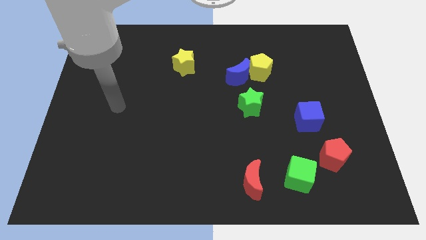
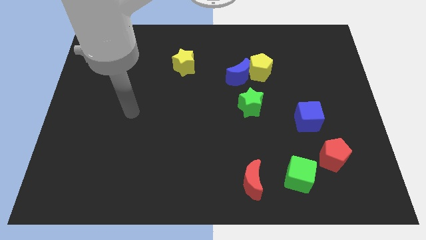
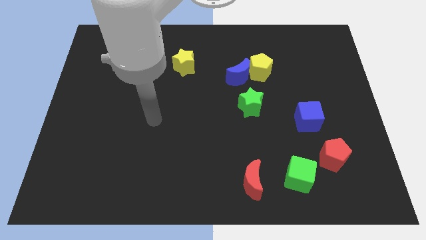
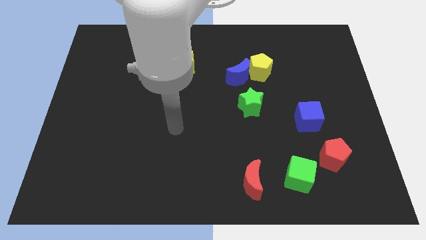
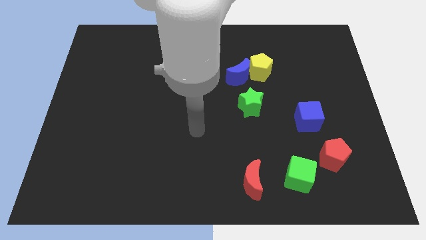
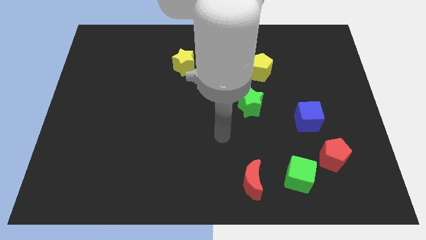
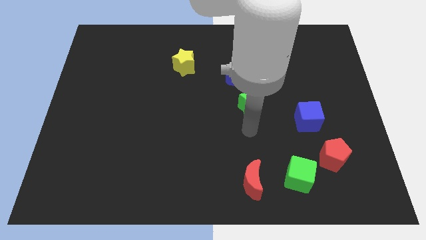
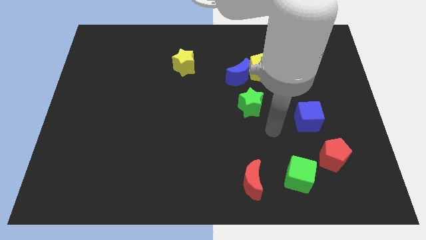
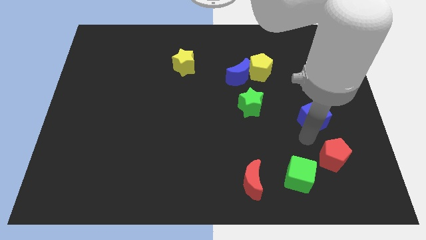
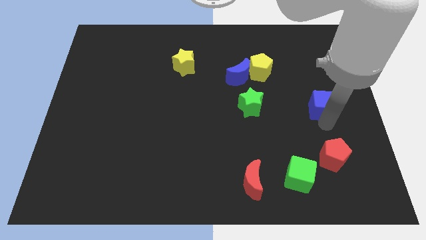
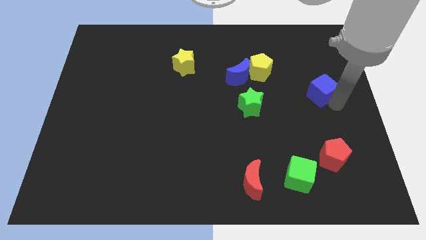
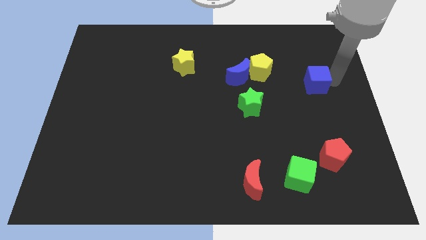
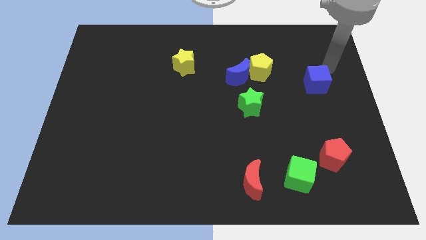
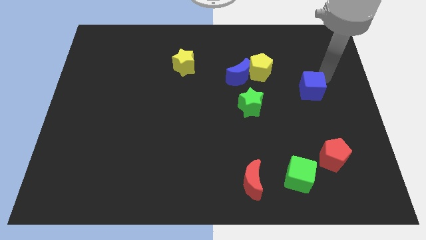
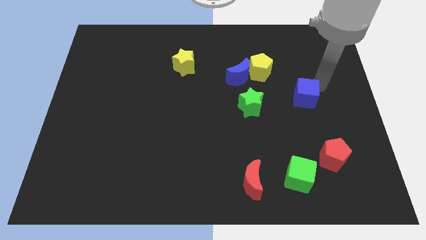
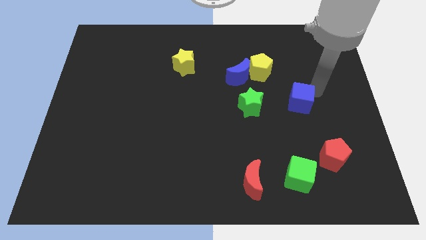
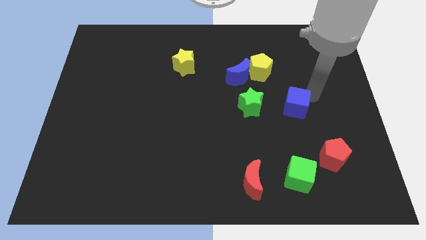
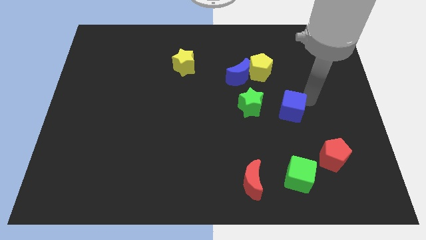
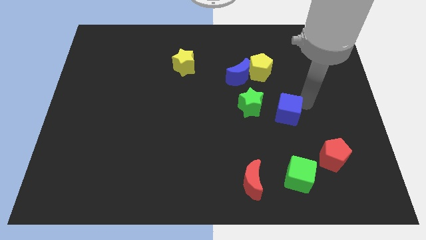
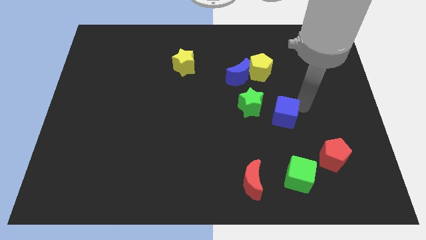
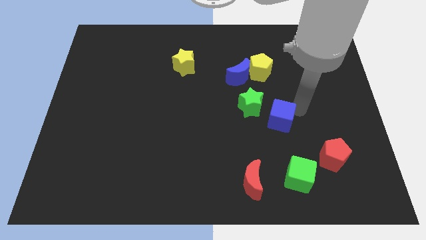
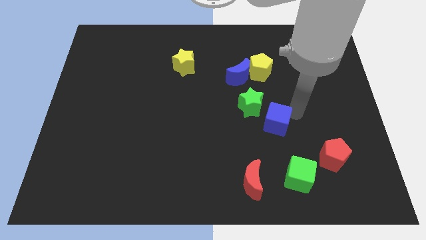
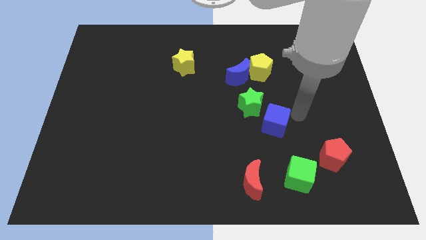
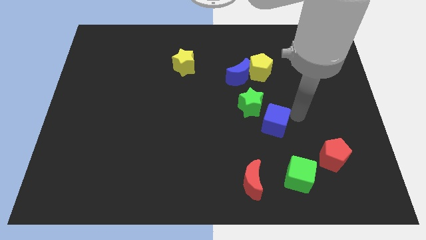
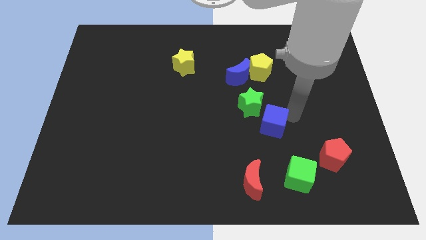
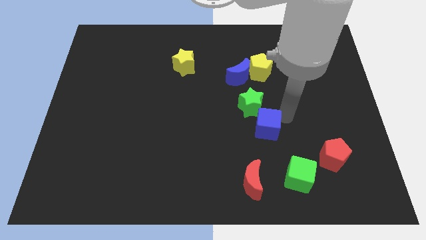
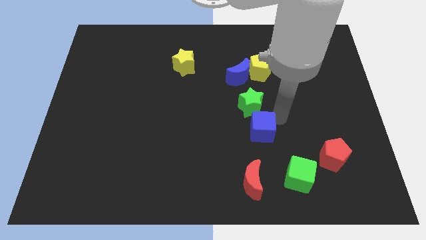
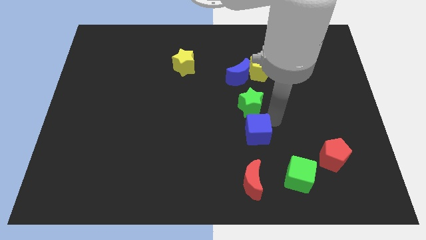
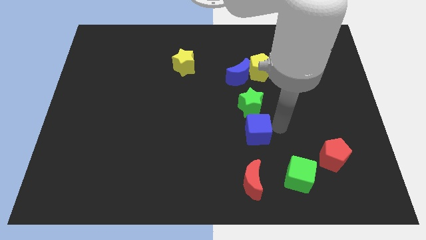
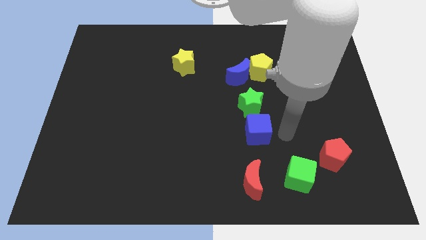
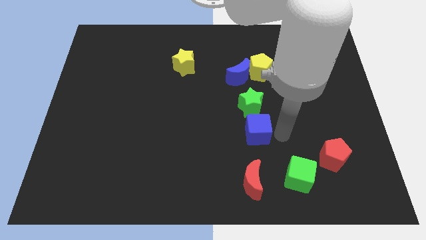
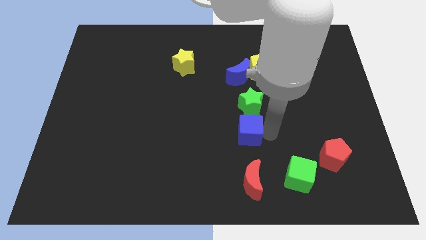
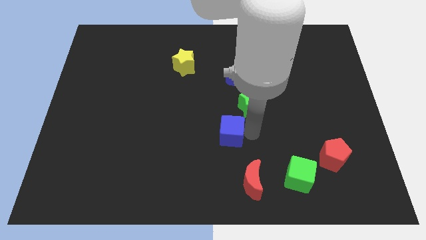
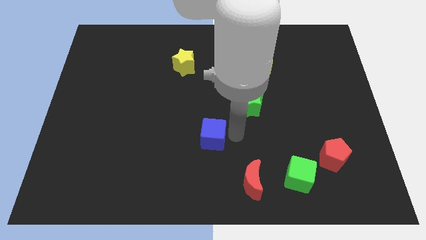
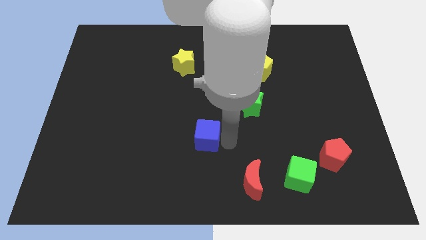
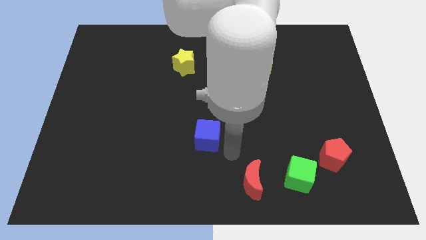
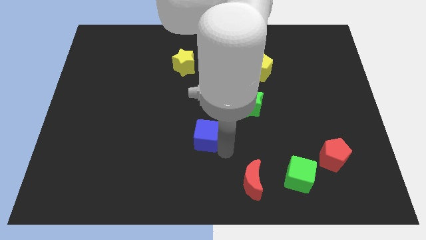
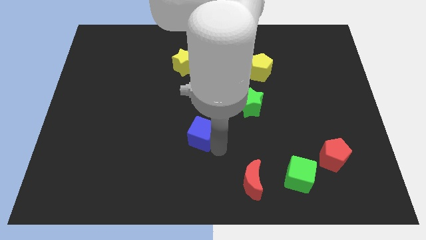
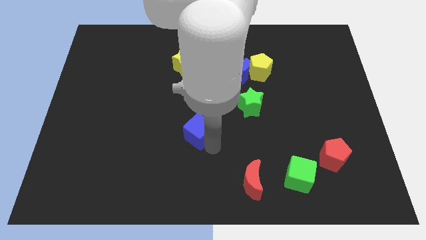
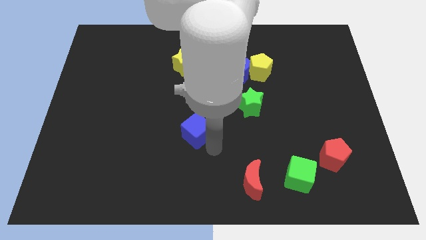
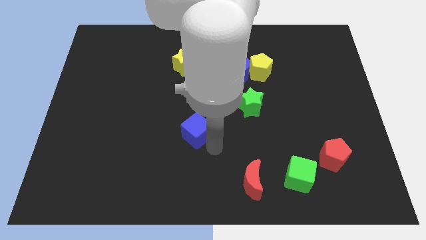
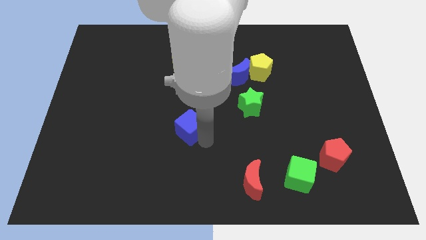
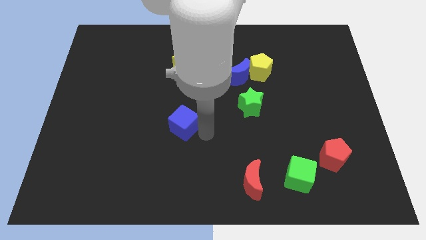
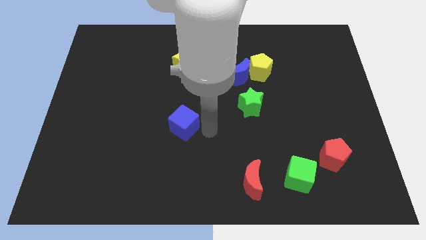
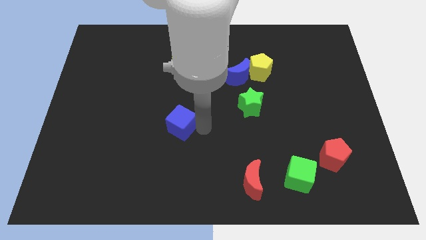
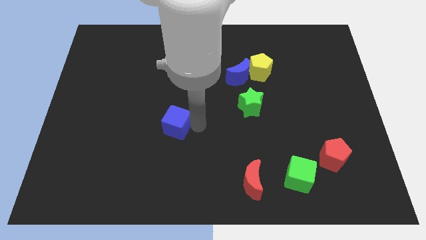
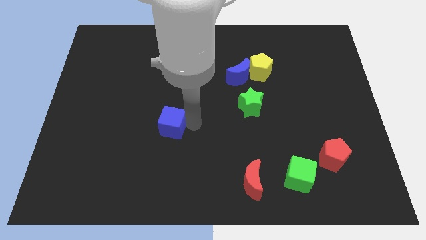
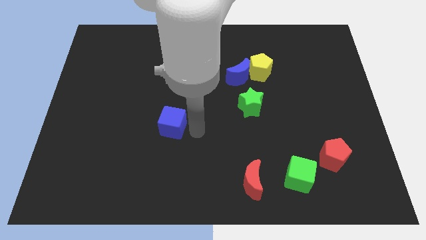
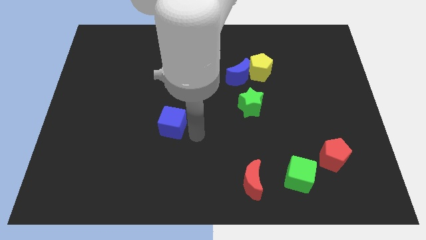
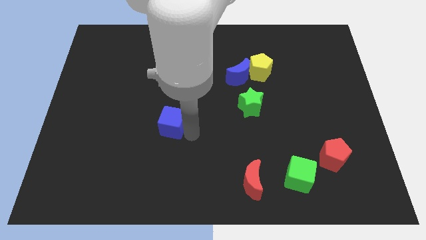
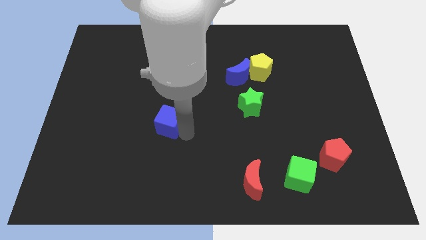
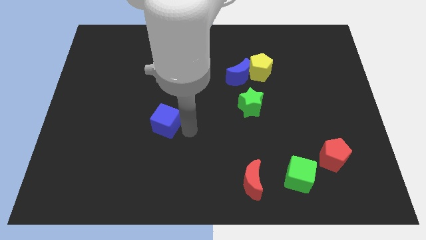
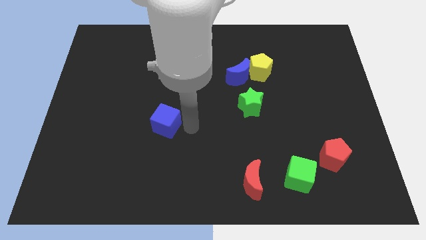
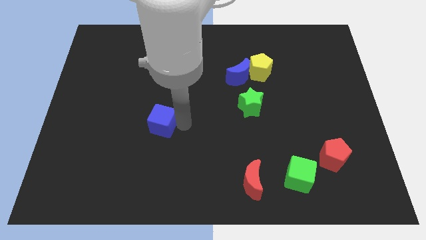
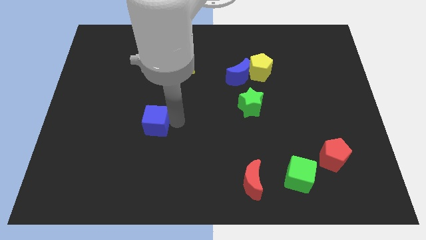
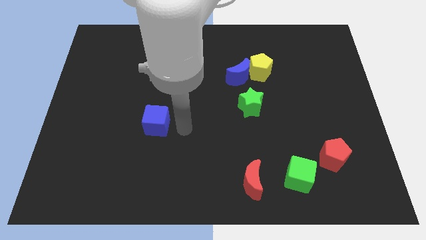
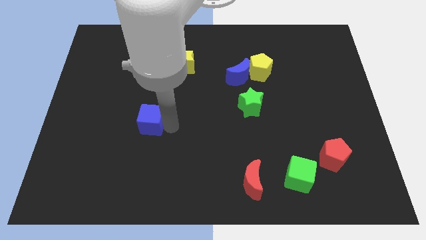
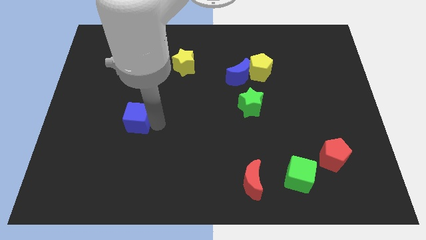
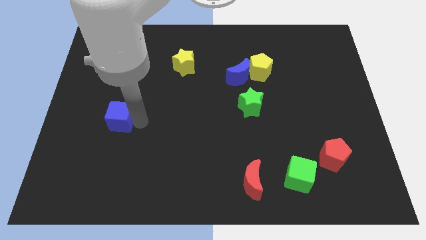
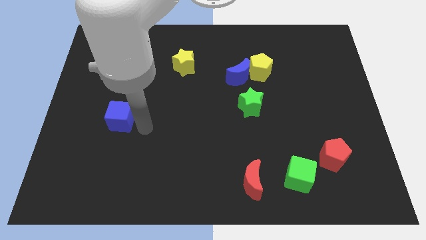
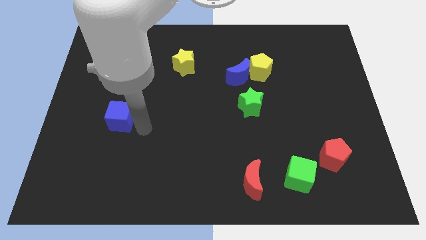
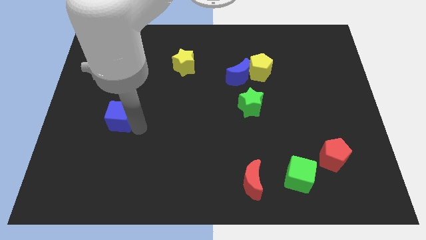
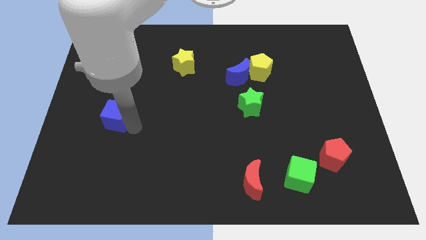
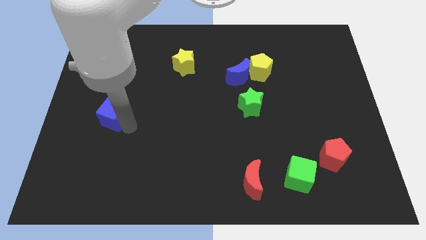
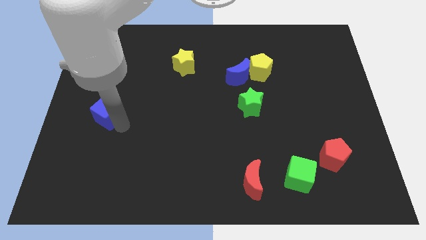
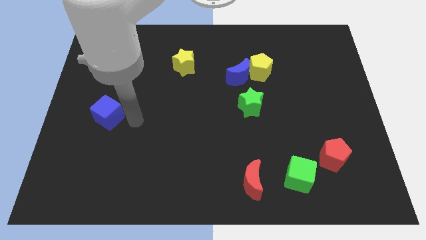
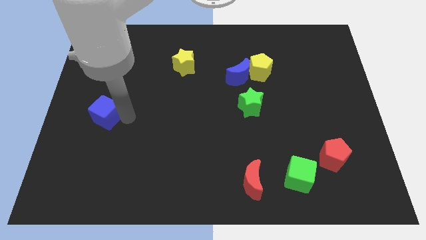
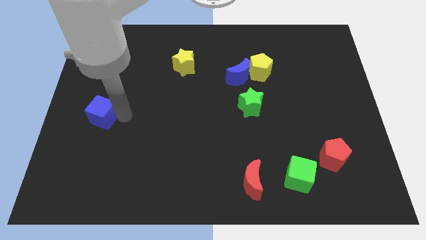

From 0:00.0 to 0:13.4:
move the blue cube to the left side

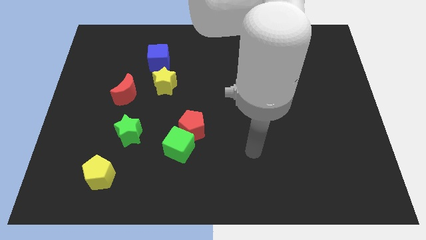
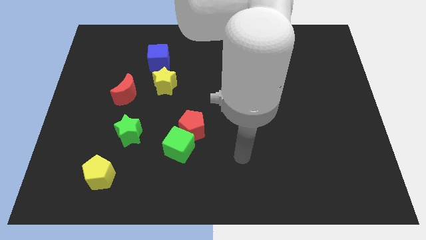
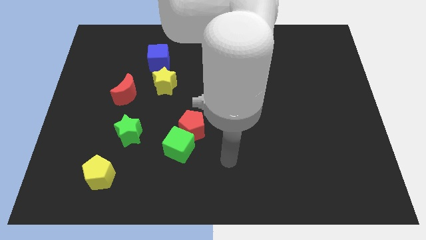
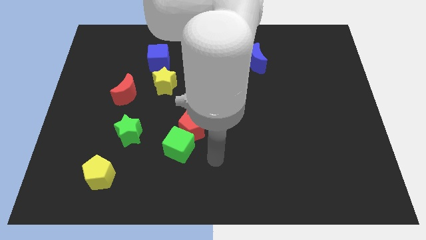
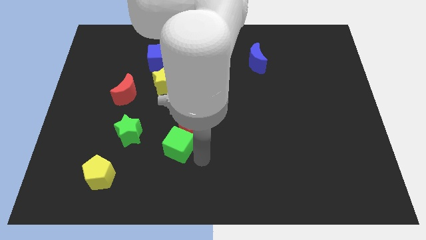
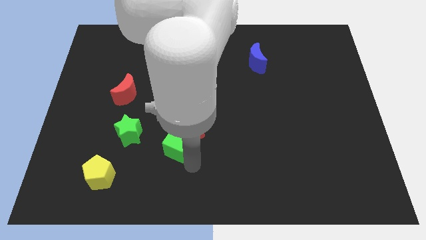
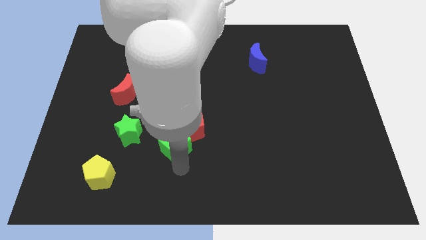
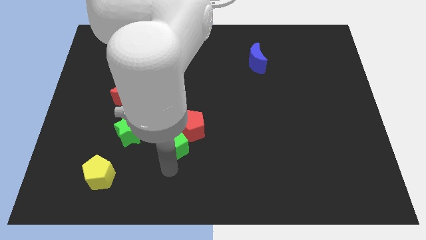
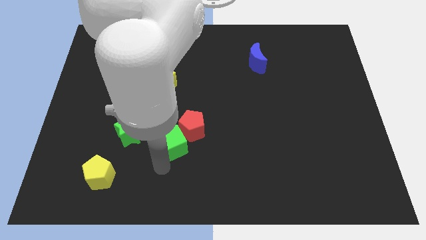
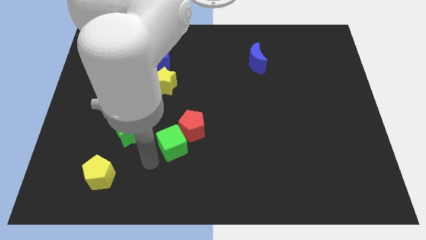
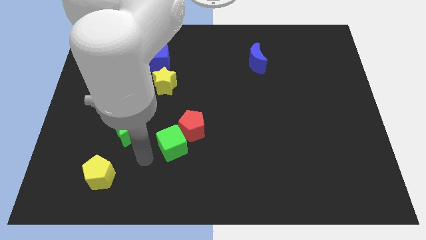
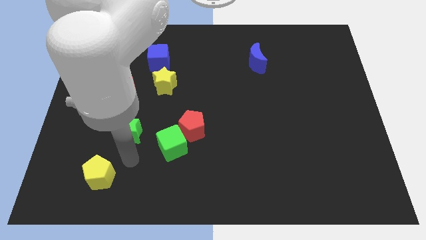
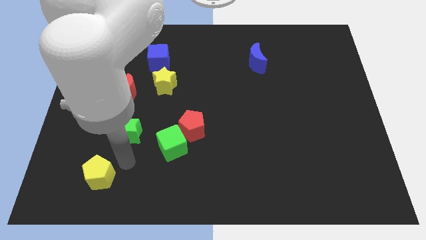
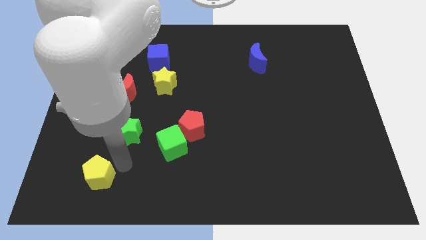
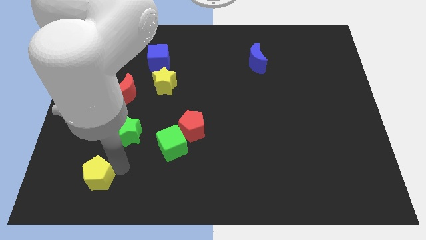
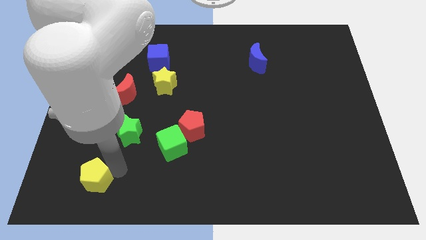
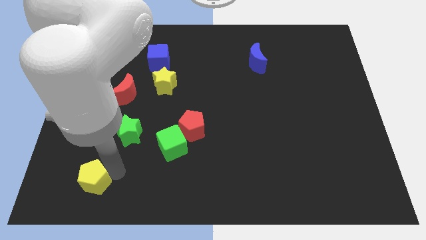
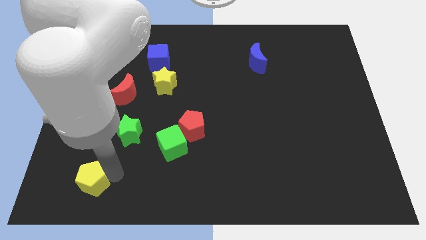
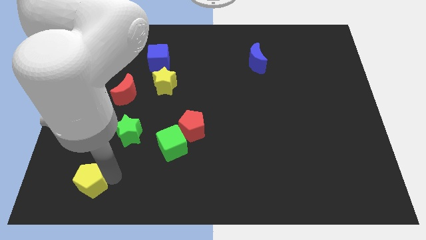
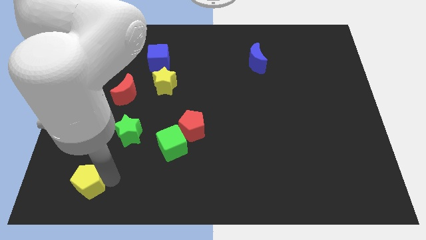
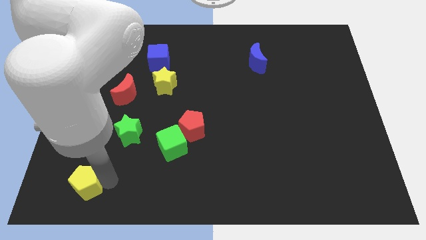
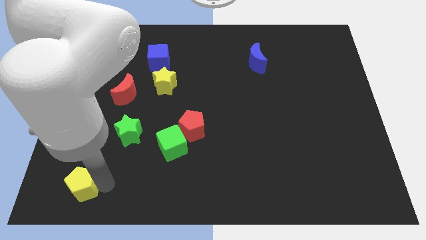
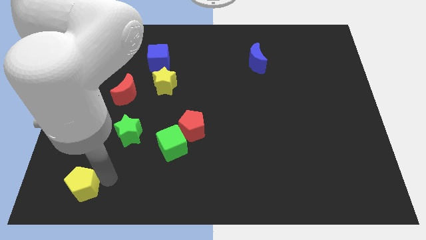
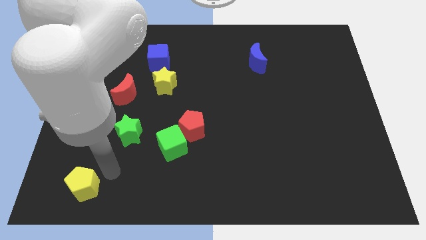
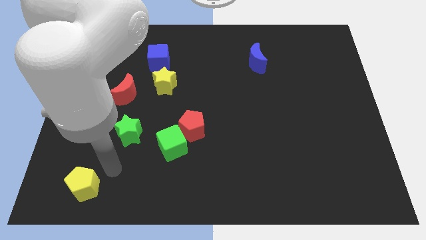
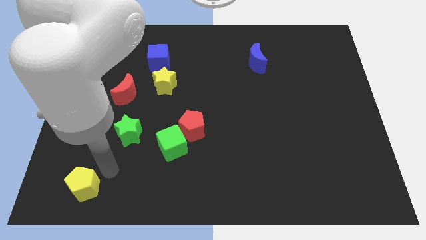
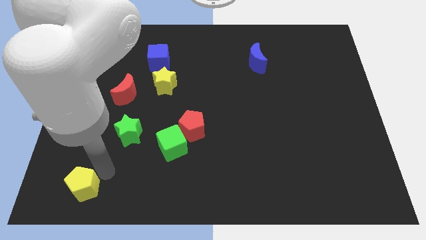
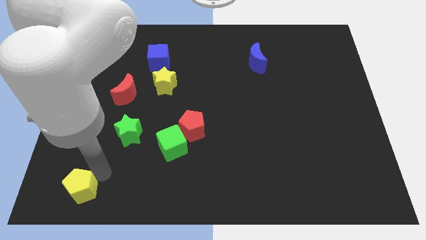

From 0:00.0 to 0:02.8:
put the yellow pentagon to the bottom left corner
